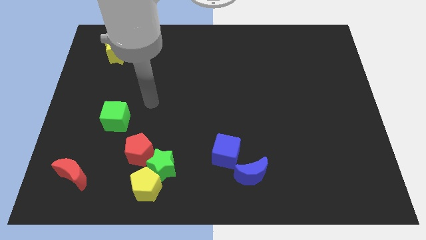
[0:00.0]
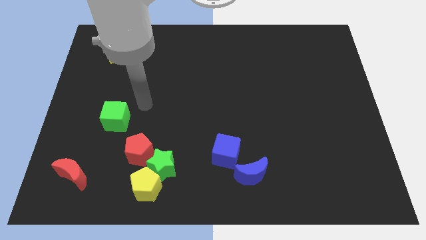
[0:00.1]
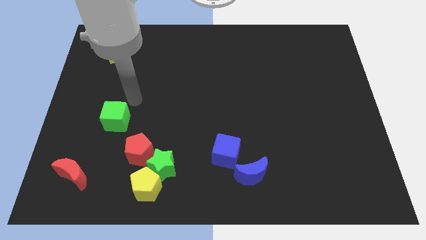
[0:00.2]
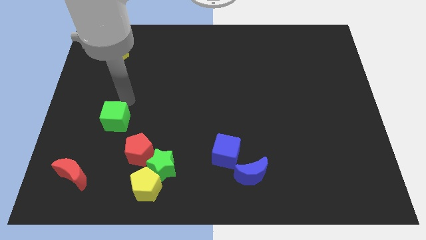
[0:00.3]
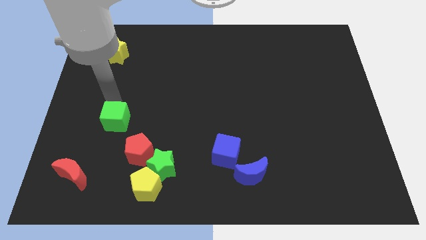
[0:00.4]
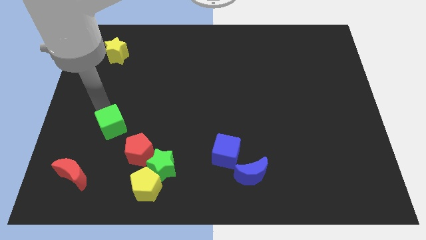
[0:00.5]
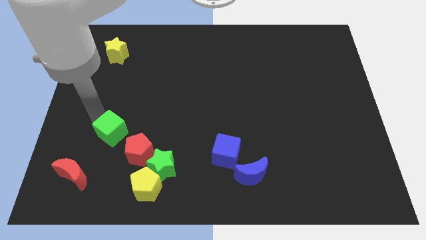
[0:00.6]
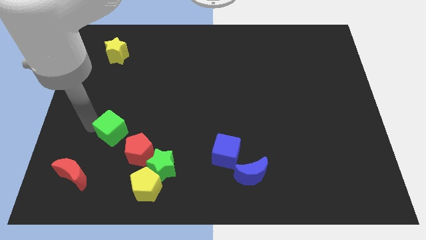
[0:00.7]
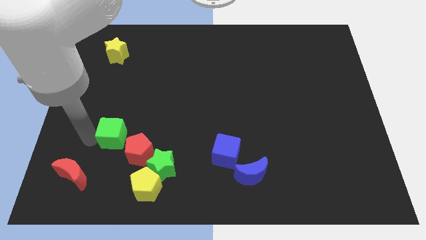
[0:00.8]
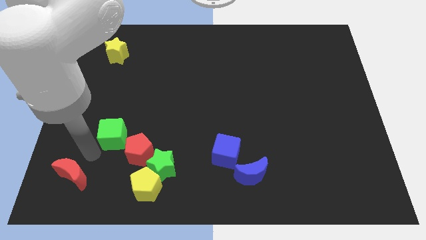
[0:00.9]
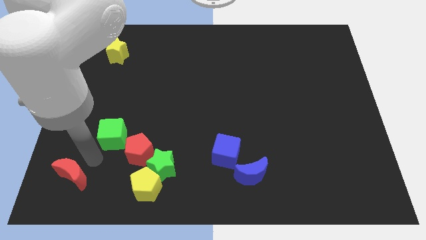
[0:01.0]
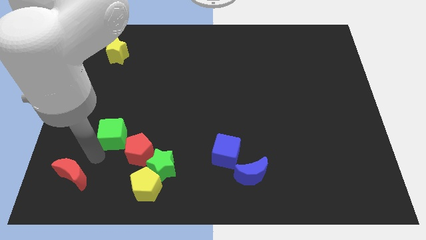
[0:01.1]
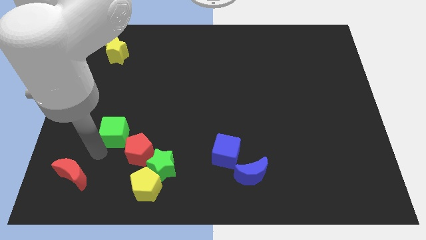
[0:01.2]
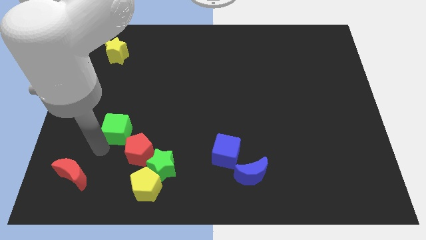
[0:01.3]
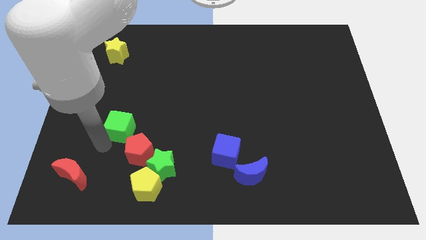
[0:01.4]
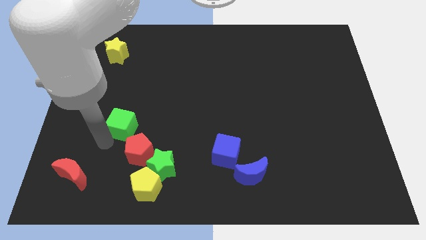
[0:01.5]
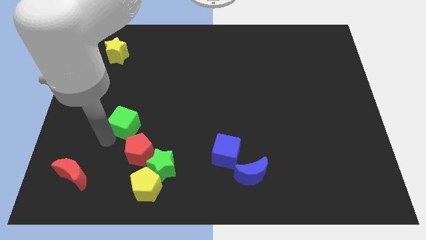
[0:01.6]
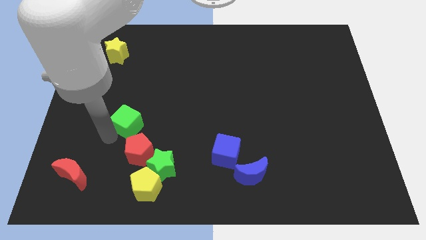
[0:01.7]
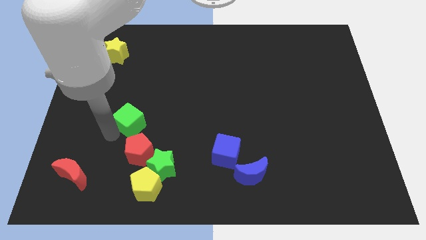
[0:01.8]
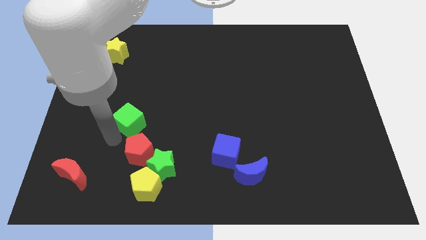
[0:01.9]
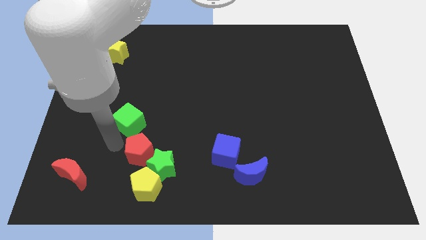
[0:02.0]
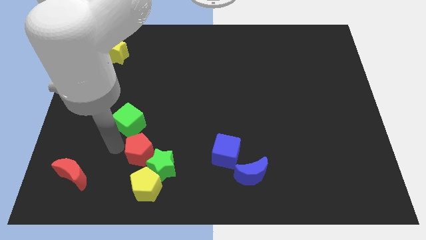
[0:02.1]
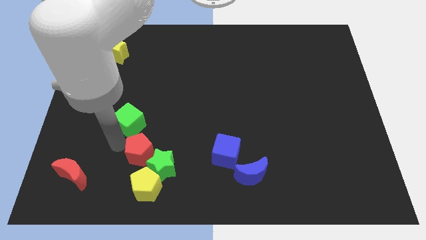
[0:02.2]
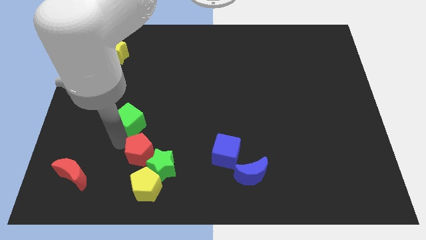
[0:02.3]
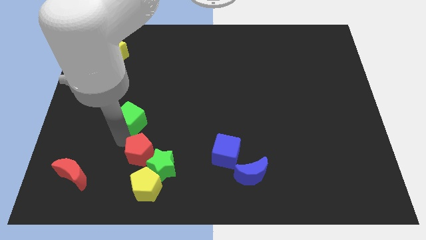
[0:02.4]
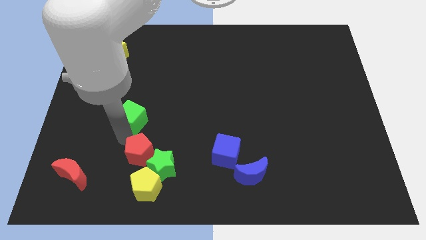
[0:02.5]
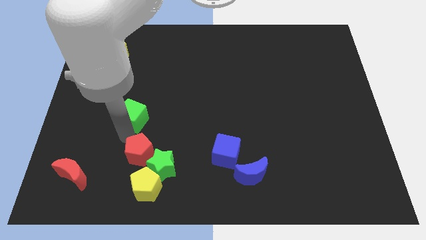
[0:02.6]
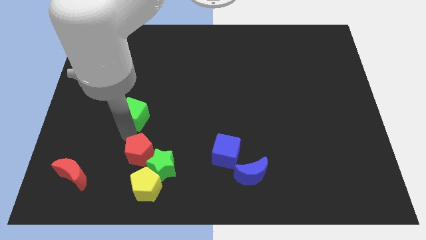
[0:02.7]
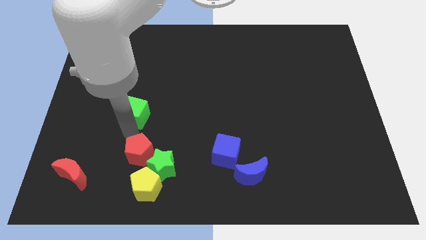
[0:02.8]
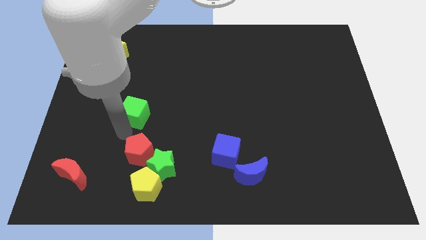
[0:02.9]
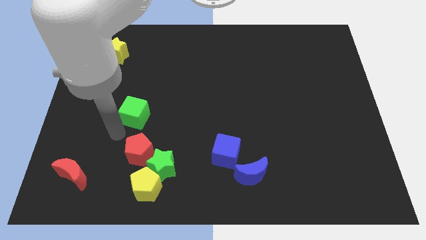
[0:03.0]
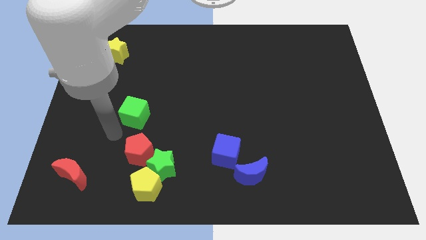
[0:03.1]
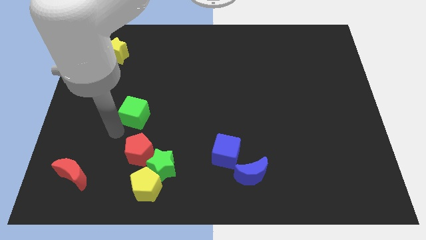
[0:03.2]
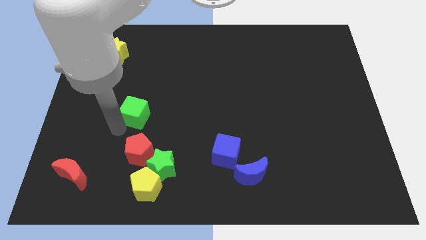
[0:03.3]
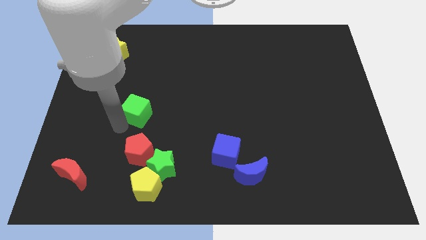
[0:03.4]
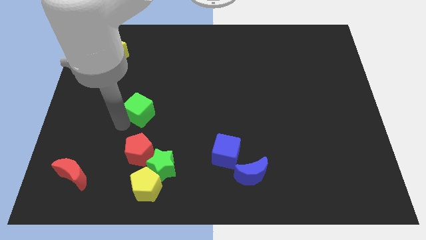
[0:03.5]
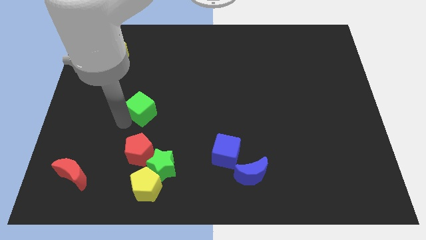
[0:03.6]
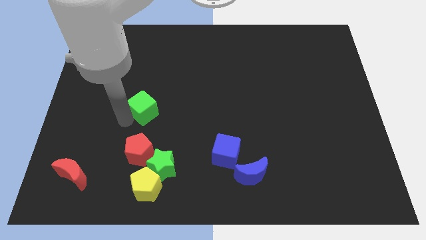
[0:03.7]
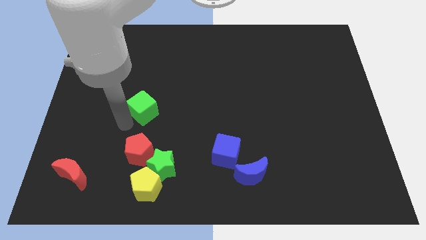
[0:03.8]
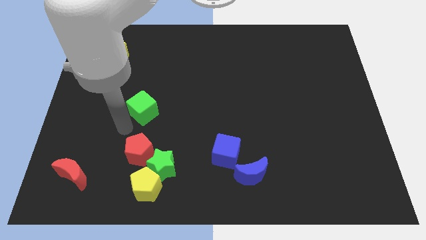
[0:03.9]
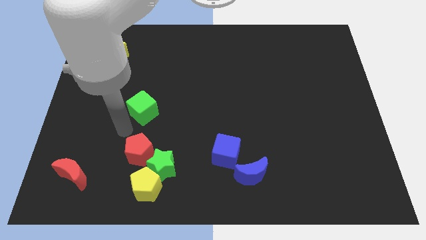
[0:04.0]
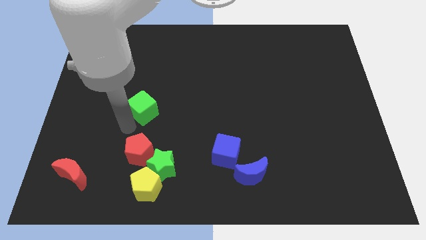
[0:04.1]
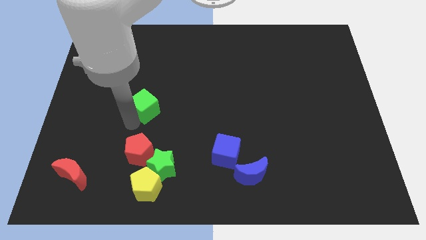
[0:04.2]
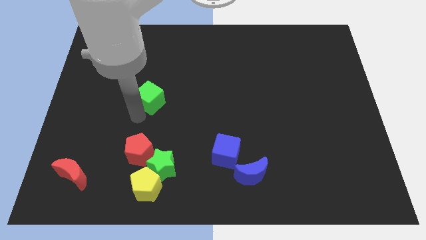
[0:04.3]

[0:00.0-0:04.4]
slide the green cube diagonally upwards and right a bit

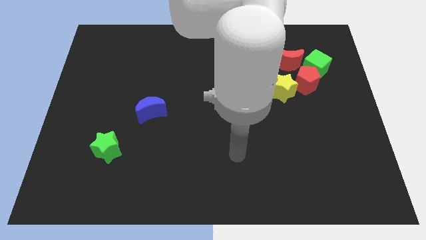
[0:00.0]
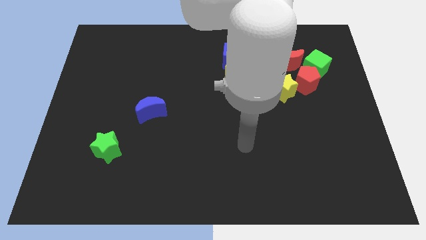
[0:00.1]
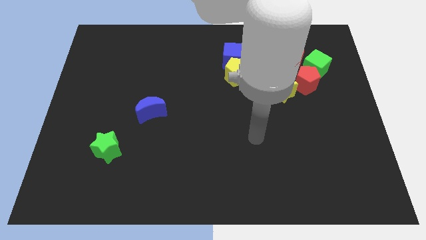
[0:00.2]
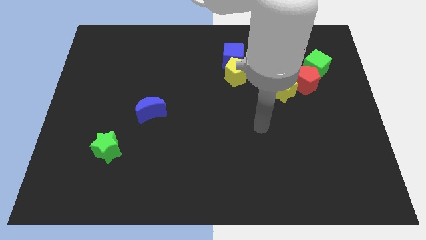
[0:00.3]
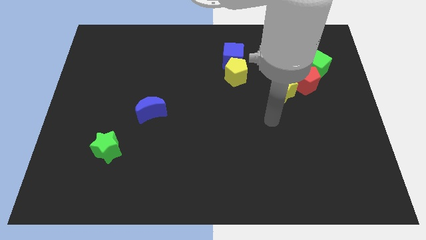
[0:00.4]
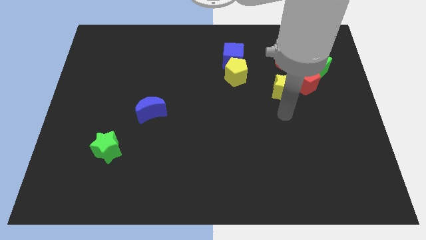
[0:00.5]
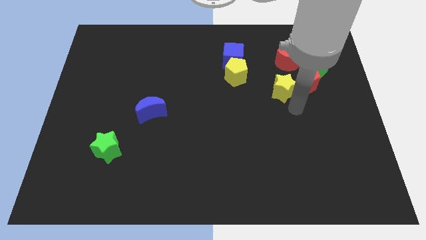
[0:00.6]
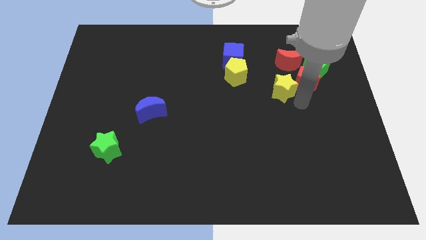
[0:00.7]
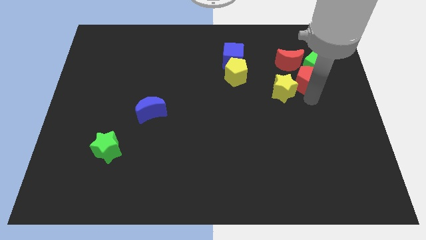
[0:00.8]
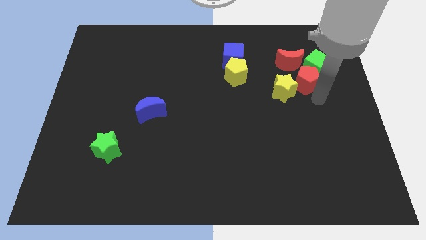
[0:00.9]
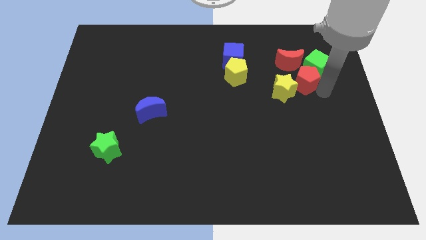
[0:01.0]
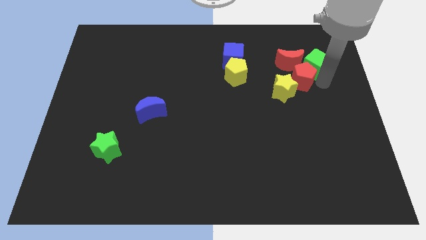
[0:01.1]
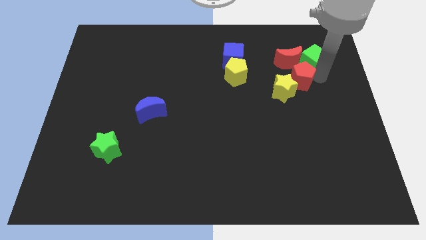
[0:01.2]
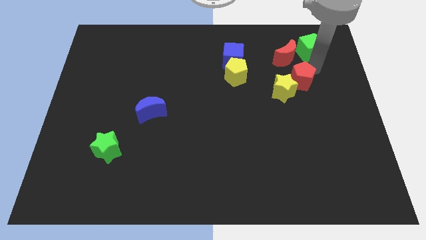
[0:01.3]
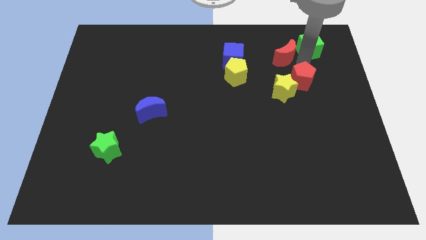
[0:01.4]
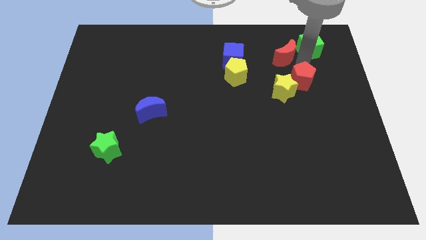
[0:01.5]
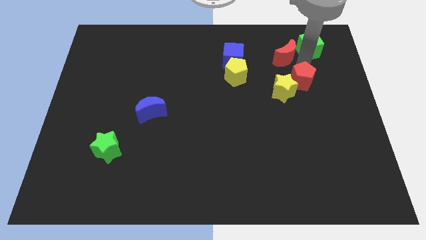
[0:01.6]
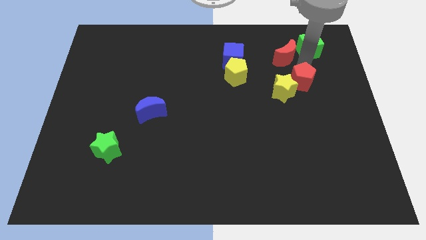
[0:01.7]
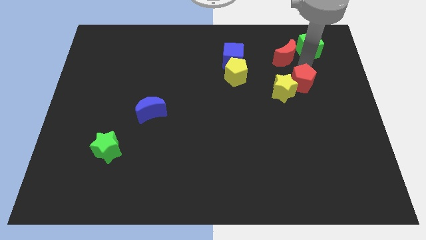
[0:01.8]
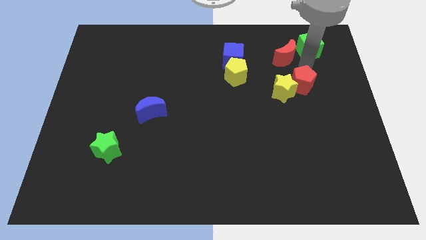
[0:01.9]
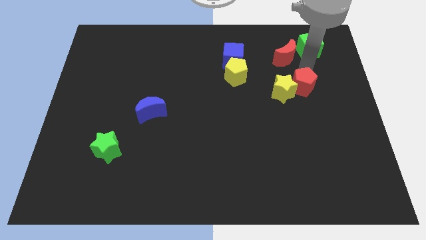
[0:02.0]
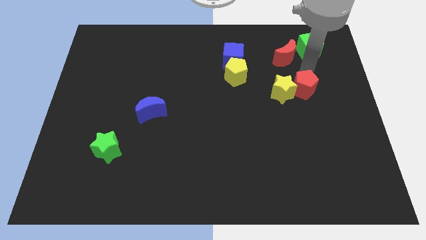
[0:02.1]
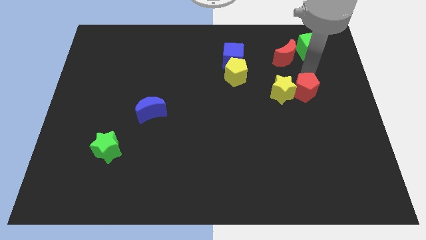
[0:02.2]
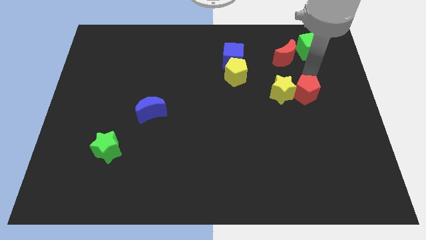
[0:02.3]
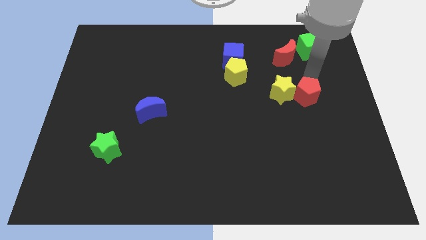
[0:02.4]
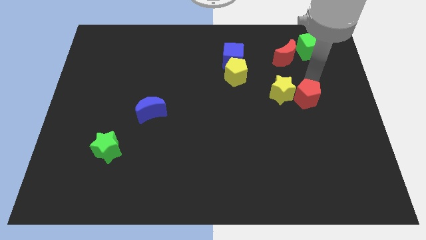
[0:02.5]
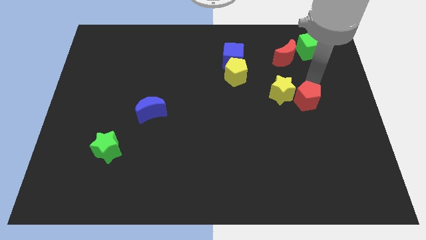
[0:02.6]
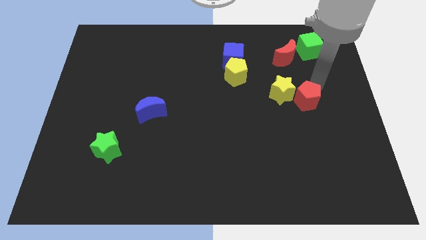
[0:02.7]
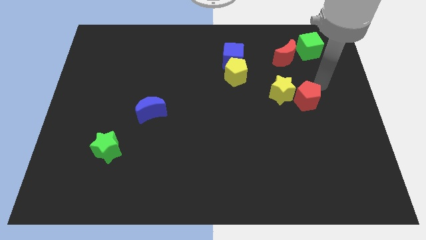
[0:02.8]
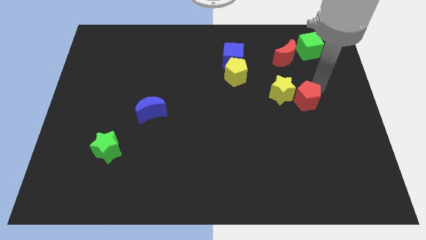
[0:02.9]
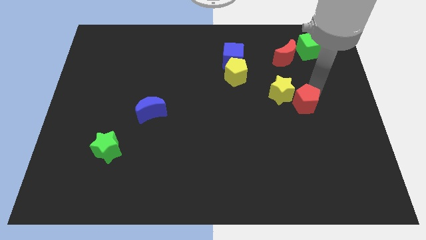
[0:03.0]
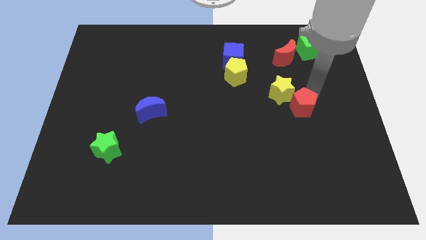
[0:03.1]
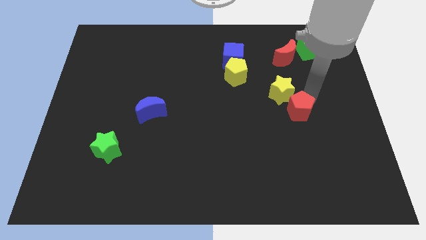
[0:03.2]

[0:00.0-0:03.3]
slightly push the red pentagon downwards and to the left diagonally

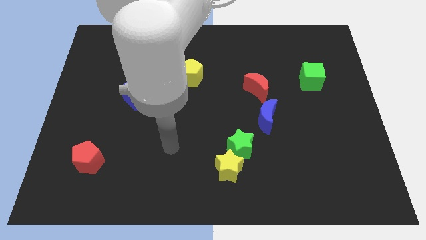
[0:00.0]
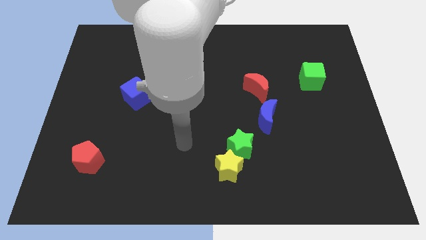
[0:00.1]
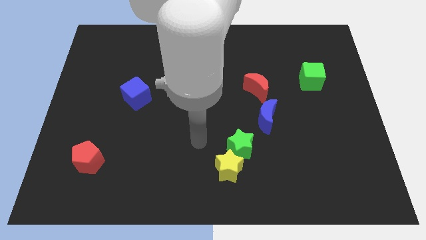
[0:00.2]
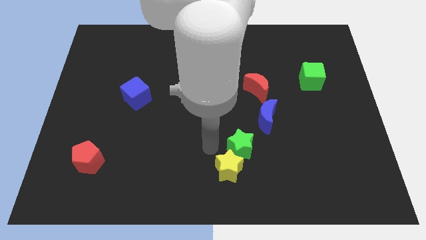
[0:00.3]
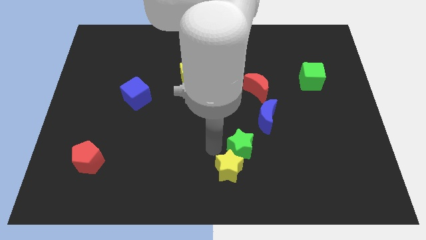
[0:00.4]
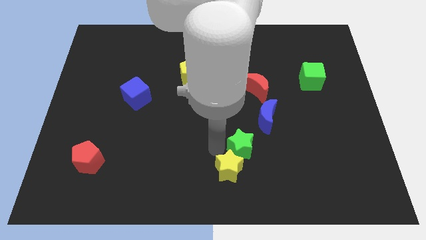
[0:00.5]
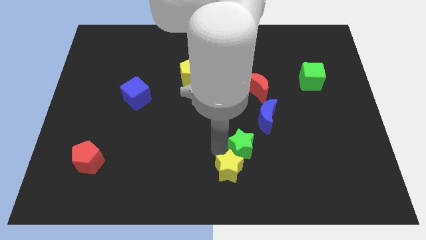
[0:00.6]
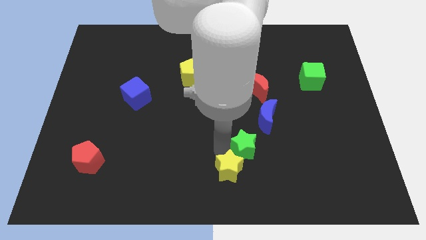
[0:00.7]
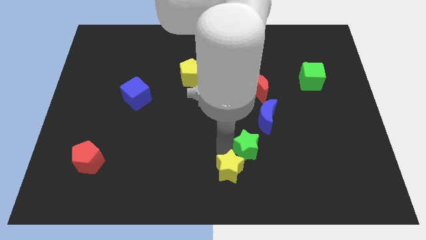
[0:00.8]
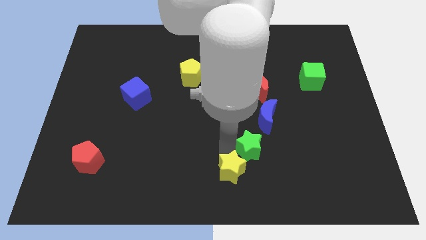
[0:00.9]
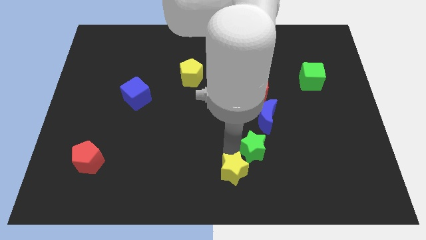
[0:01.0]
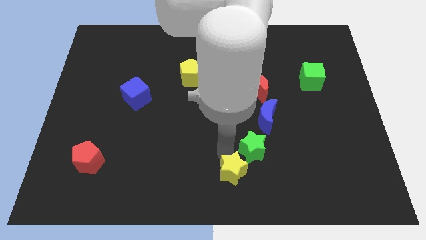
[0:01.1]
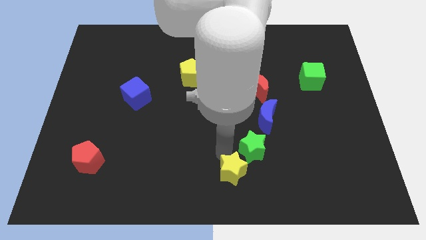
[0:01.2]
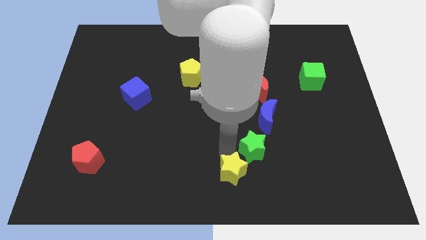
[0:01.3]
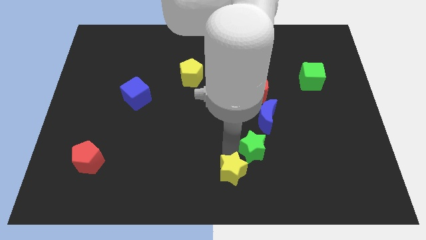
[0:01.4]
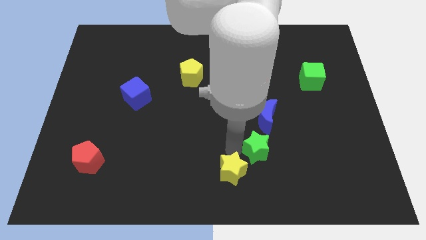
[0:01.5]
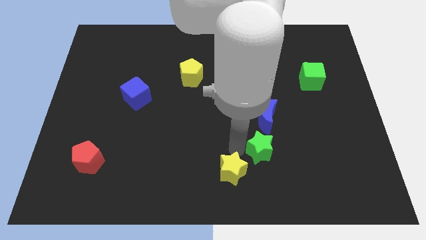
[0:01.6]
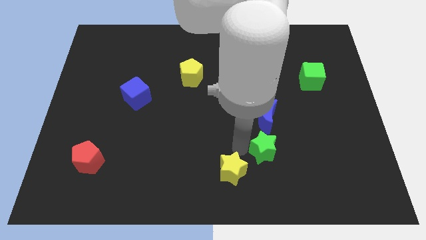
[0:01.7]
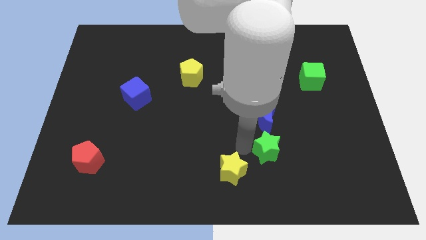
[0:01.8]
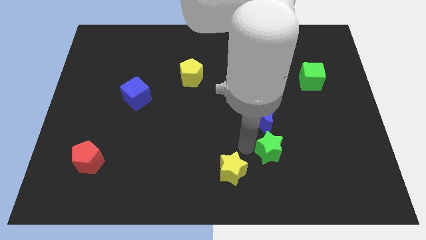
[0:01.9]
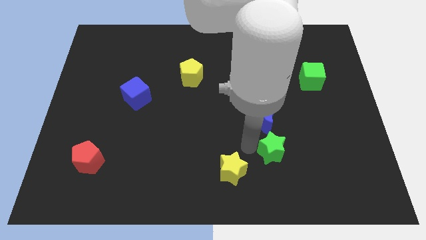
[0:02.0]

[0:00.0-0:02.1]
slightly push the green star right
